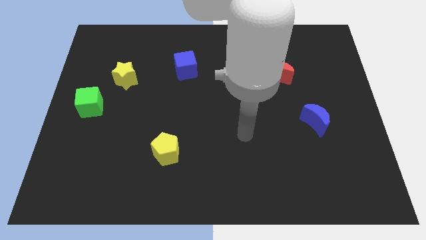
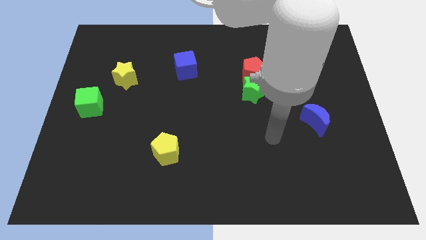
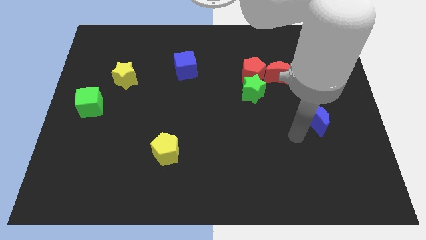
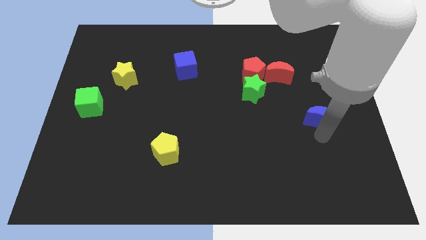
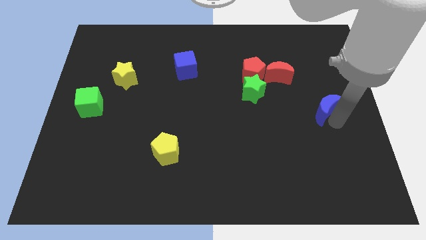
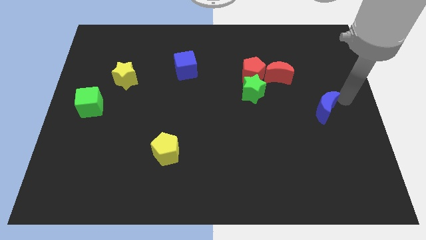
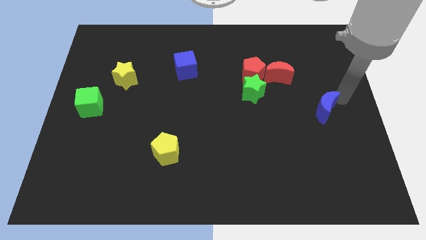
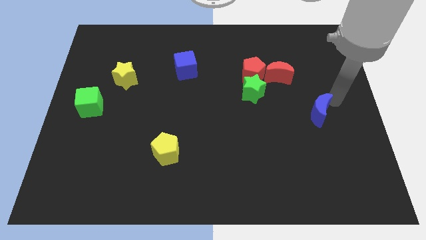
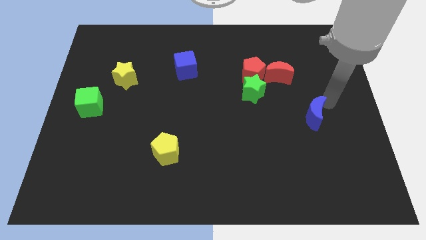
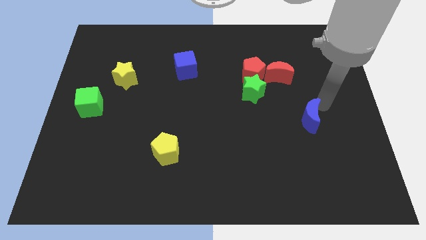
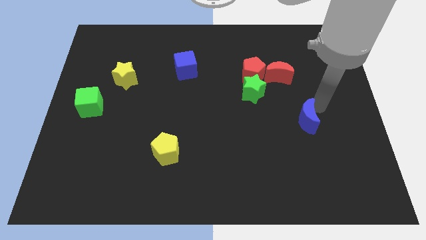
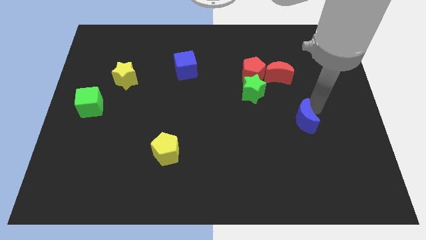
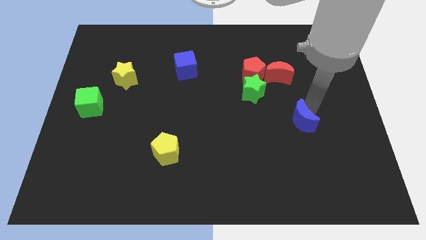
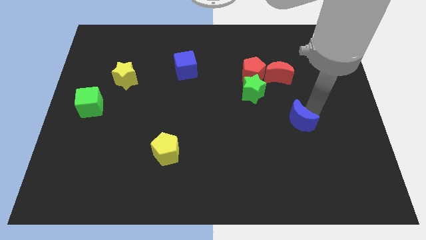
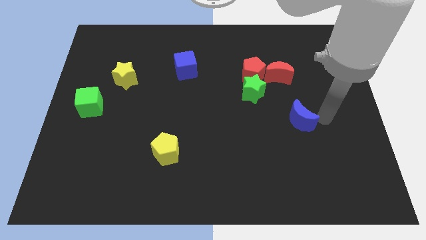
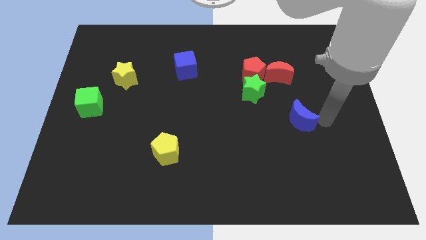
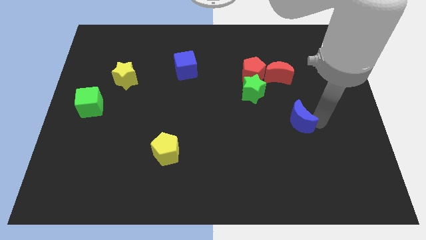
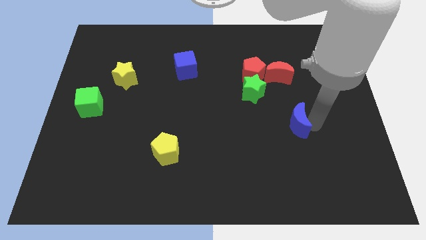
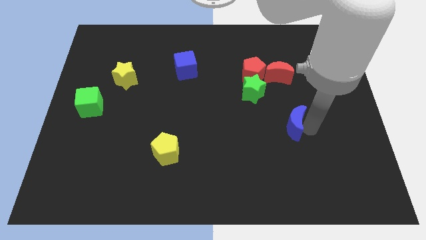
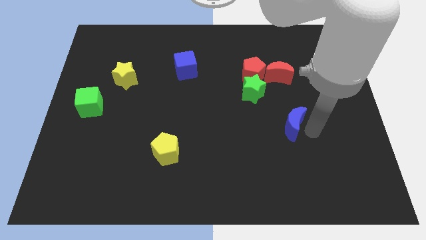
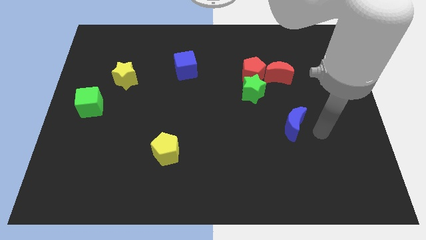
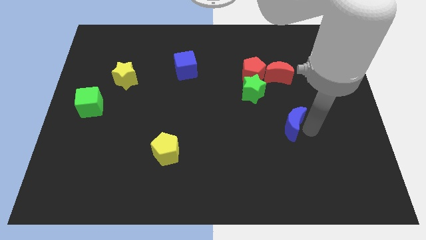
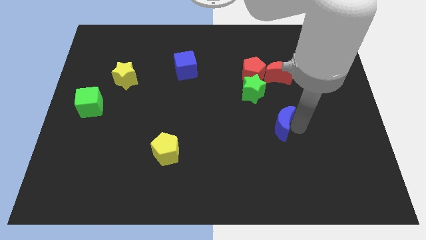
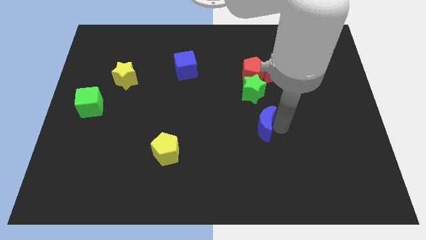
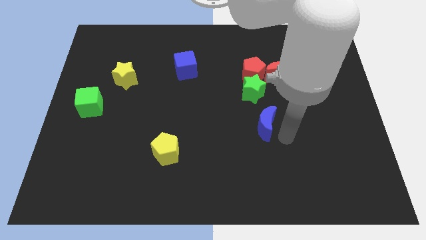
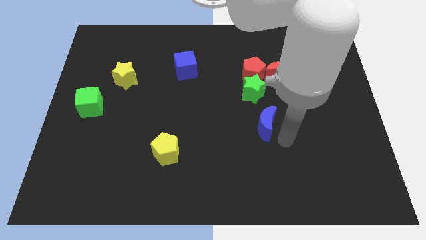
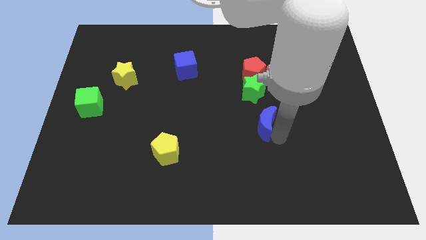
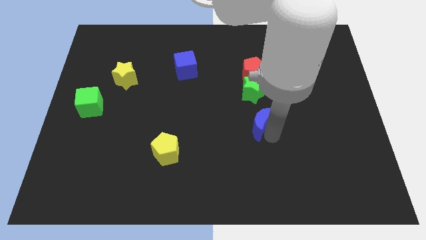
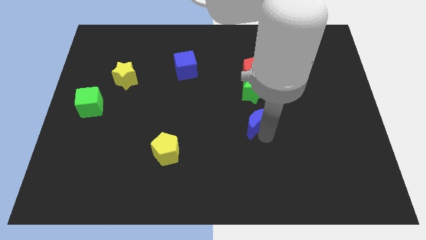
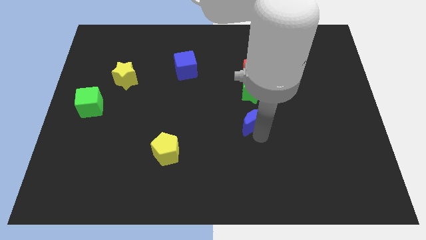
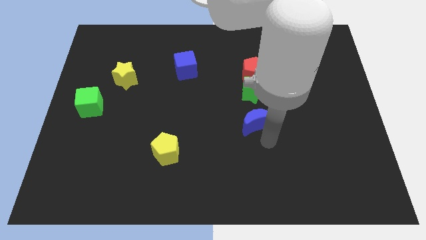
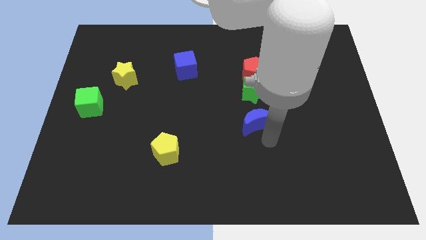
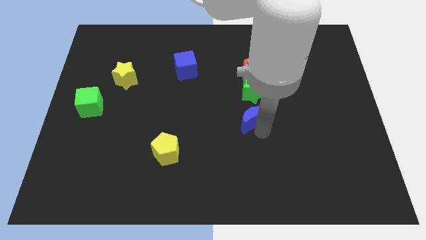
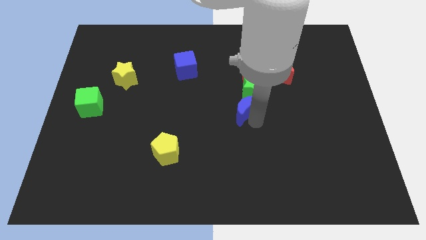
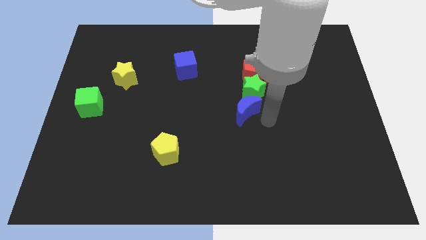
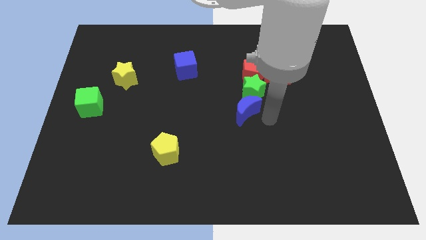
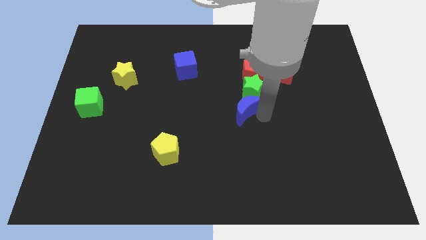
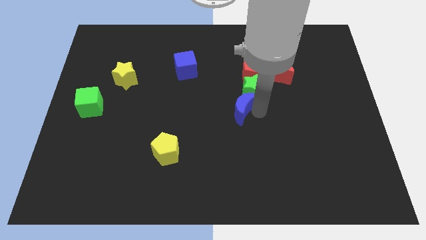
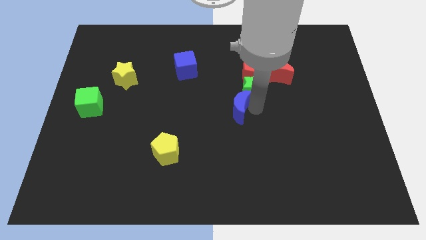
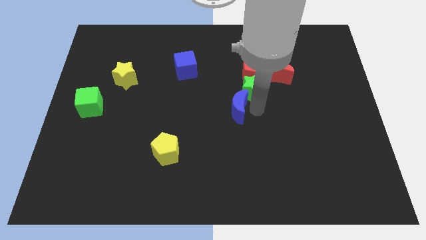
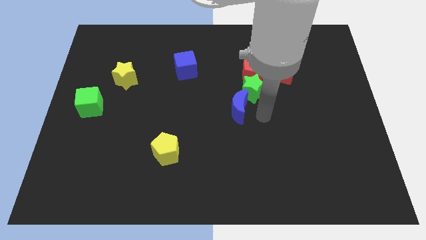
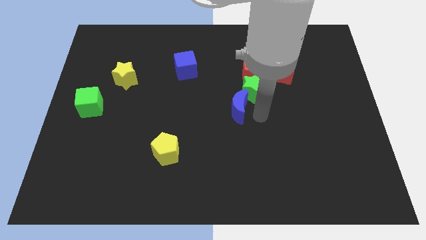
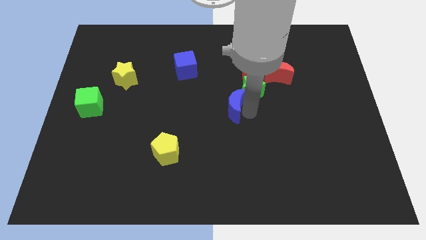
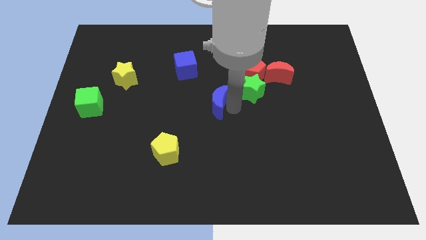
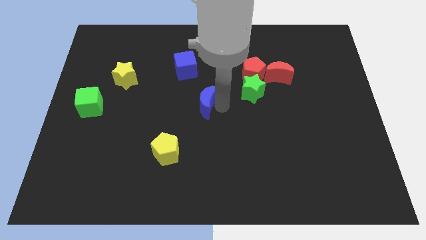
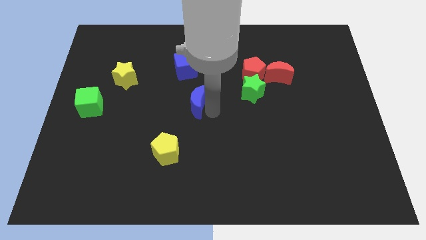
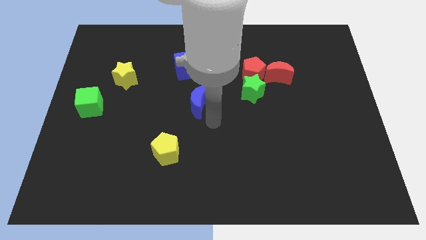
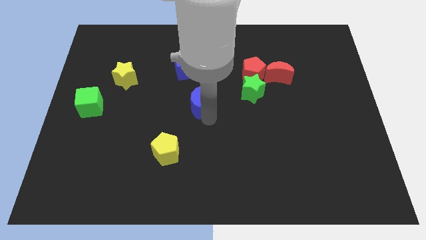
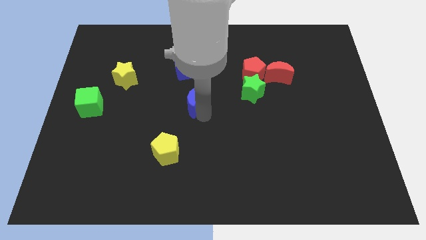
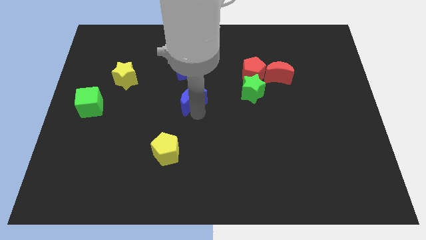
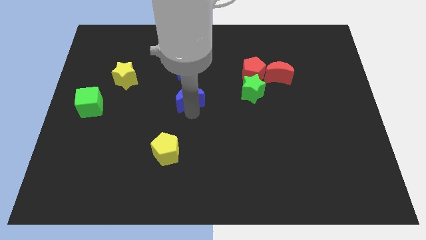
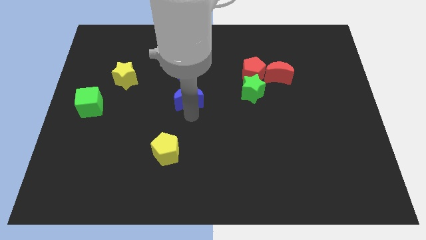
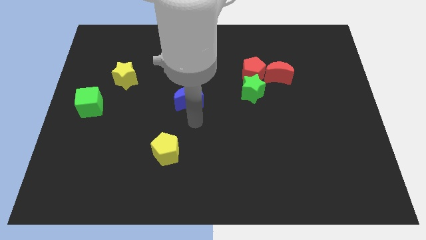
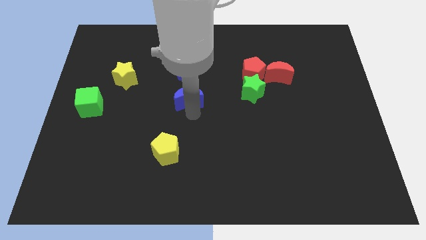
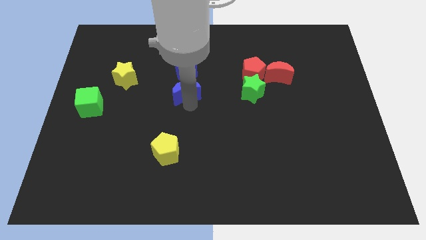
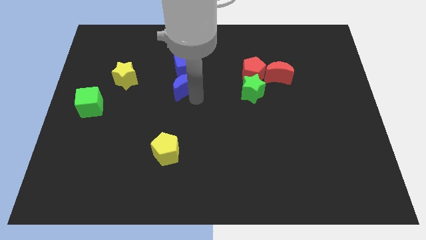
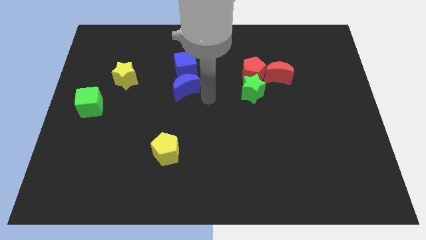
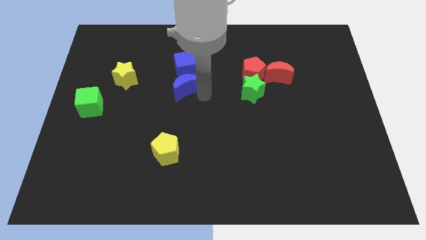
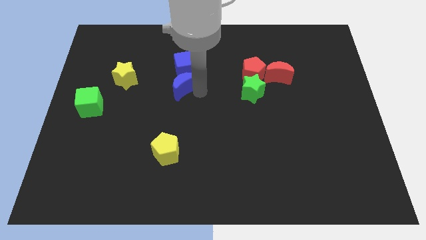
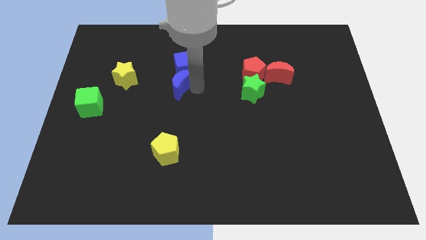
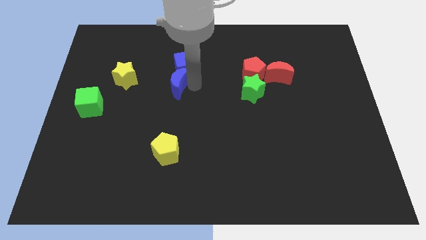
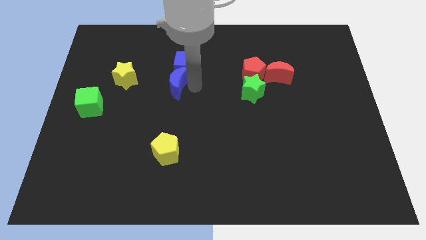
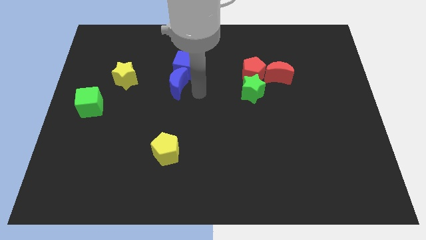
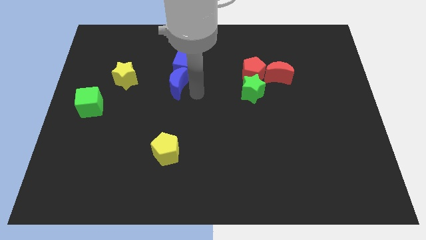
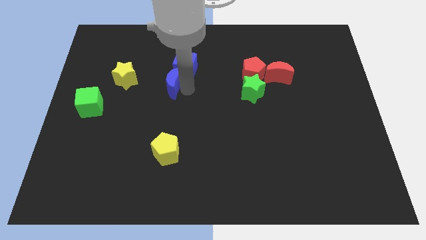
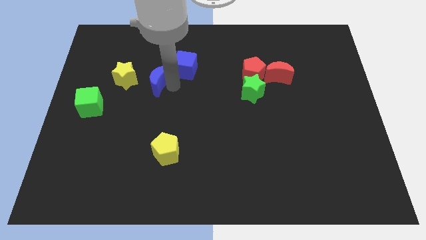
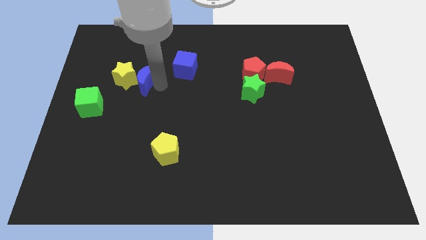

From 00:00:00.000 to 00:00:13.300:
push the blue moon to the yellow star

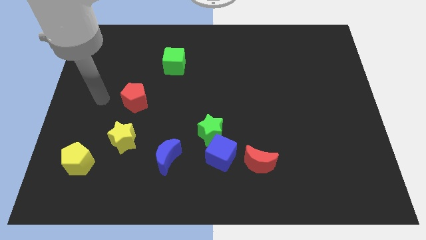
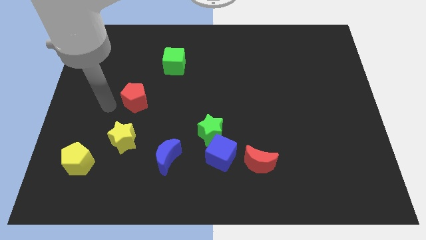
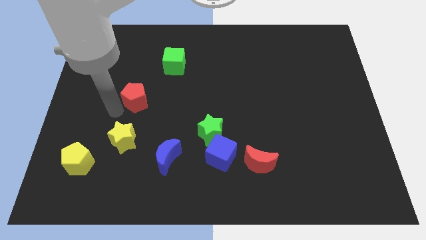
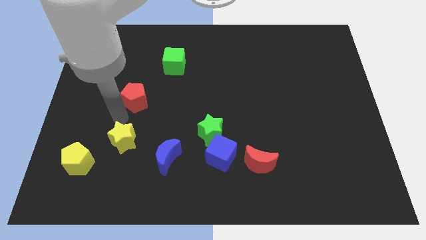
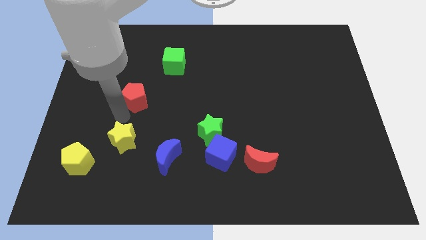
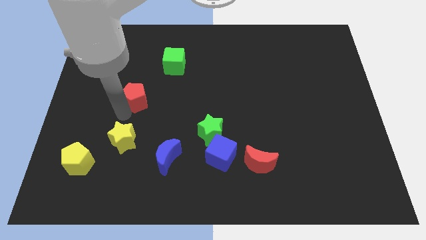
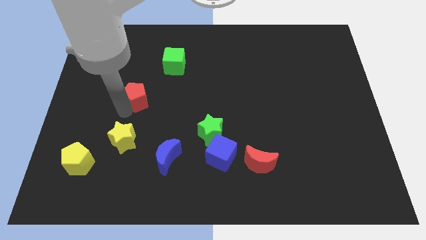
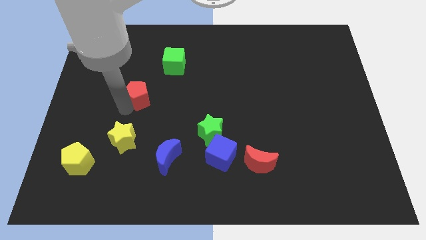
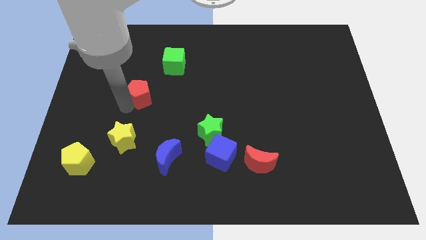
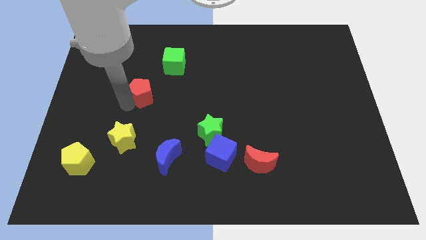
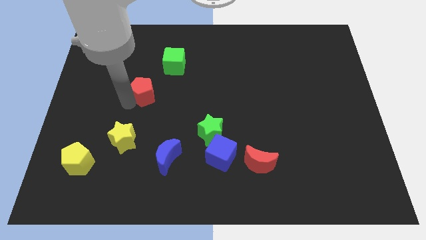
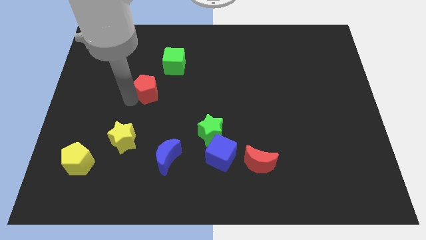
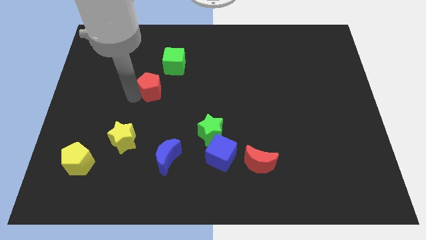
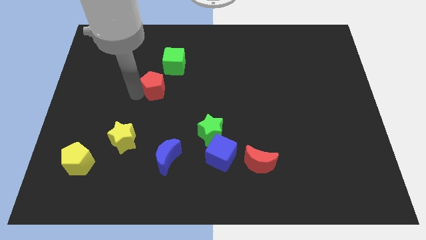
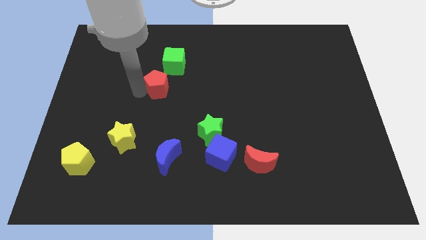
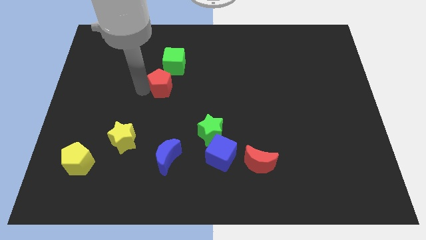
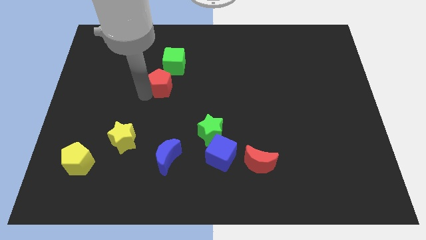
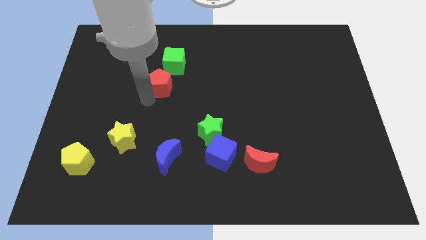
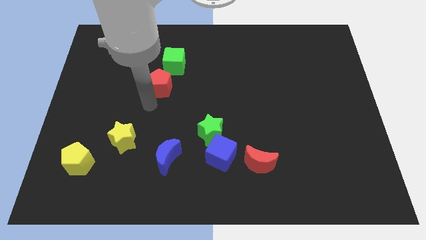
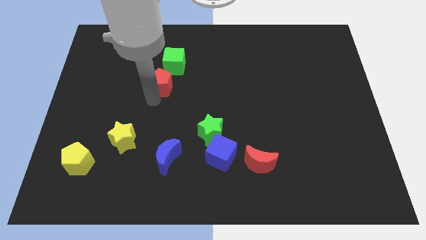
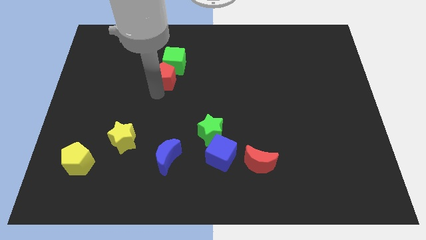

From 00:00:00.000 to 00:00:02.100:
slide the red pentagon to the green cube
